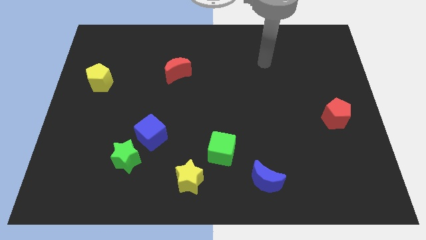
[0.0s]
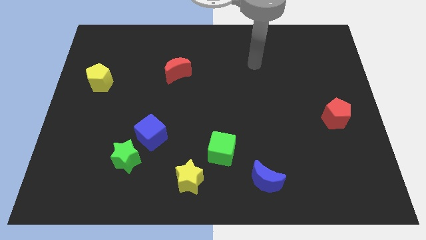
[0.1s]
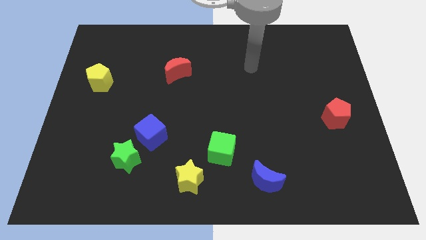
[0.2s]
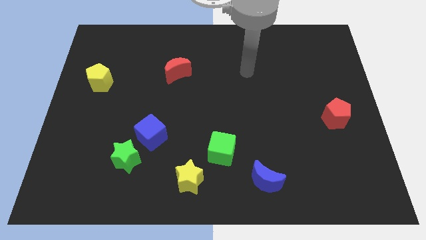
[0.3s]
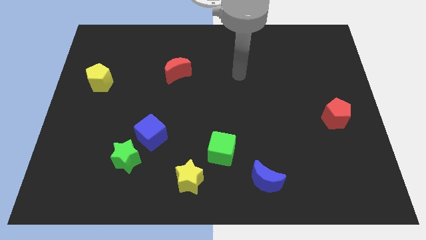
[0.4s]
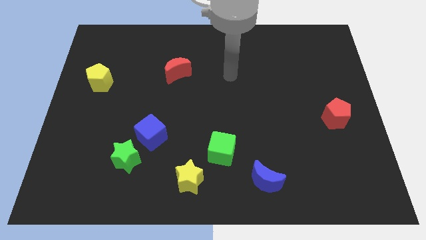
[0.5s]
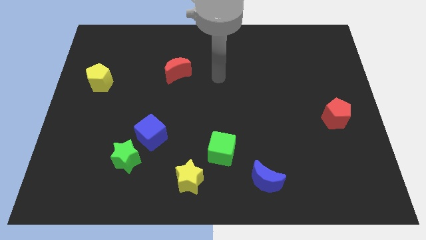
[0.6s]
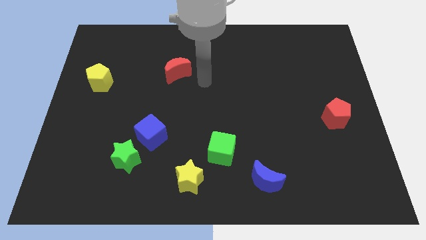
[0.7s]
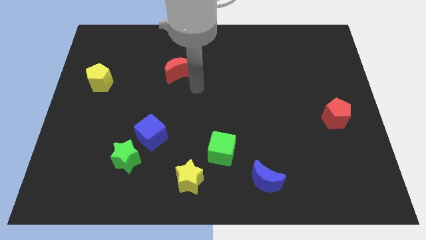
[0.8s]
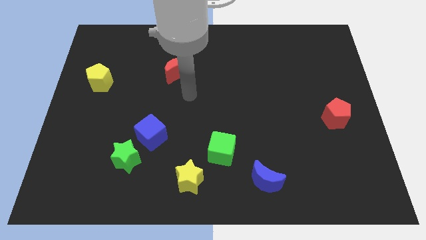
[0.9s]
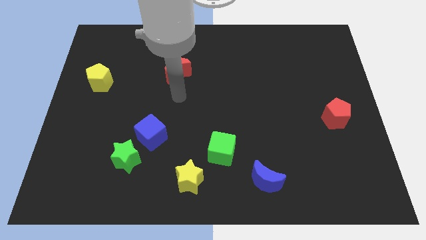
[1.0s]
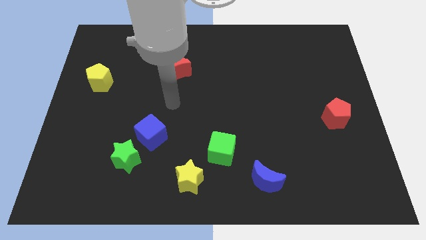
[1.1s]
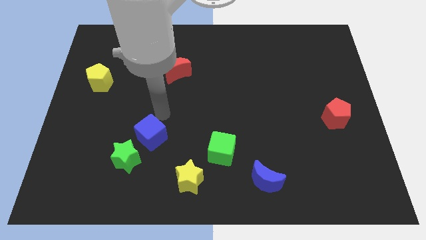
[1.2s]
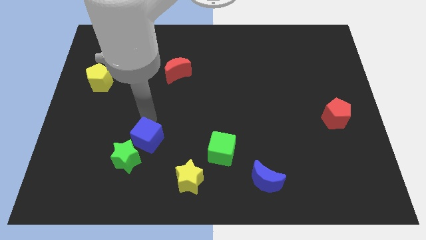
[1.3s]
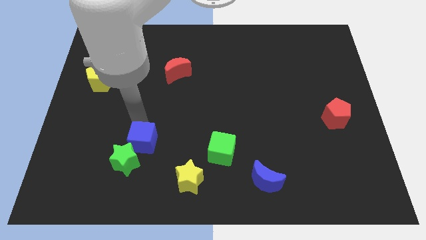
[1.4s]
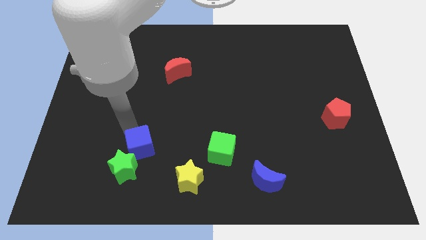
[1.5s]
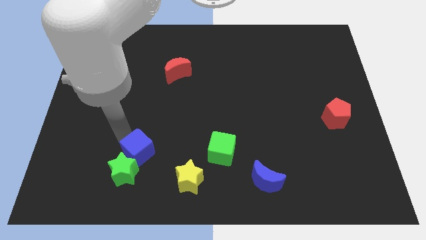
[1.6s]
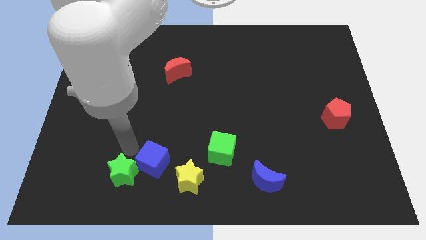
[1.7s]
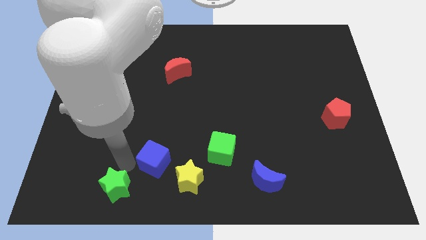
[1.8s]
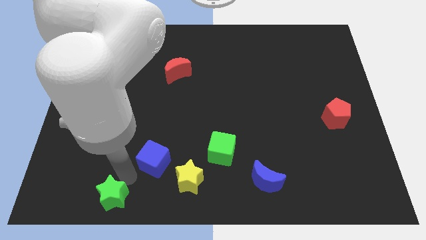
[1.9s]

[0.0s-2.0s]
pull the blue cube apart from the green star

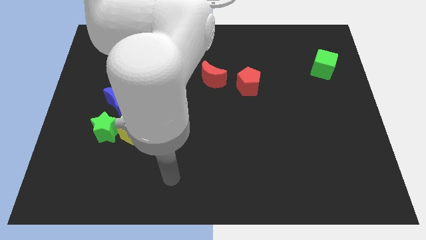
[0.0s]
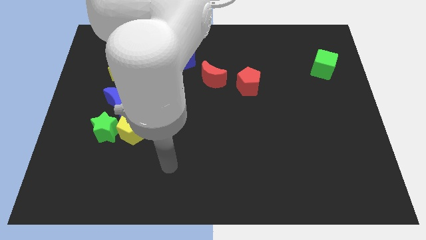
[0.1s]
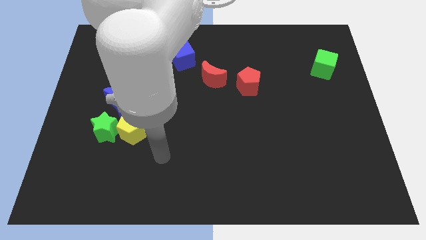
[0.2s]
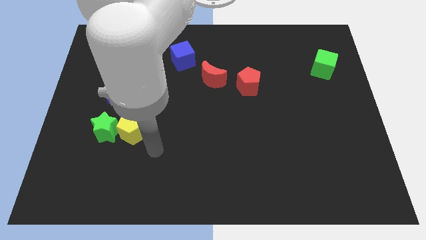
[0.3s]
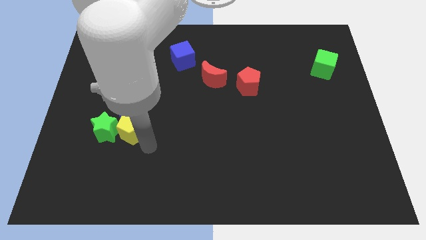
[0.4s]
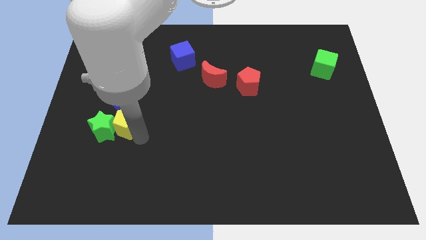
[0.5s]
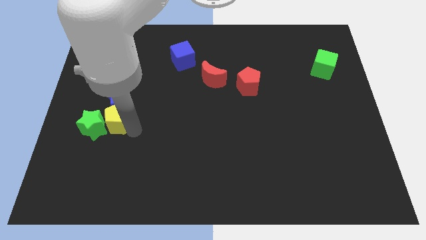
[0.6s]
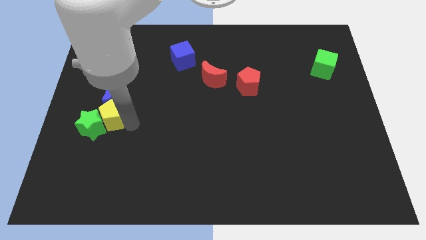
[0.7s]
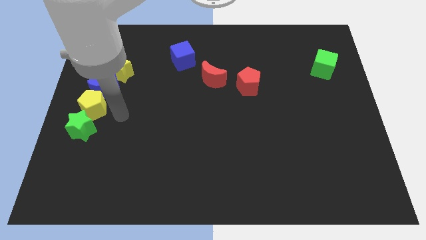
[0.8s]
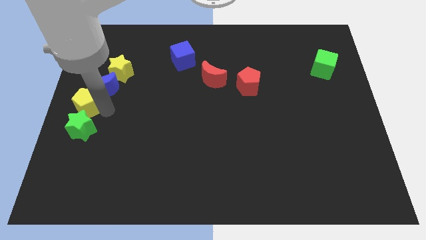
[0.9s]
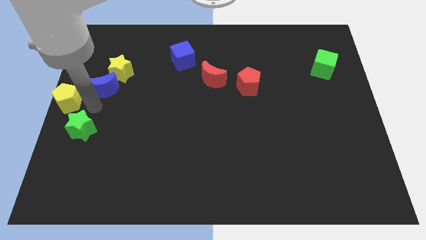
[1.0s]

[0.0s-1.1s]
pull the green star apart from the yellow pentagon and blue moon

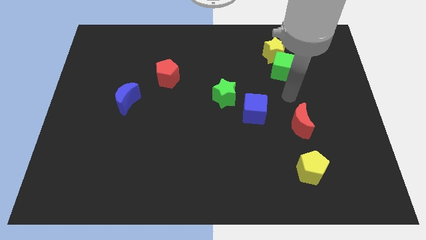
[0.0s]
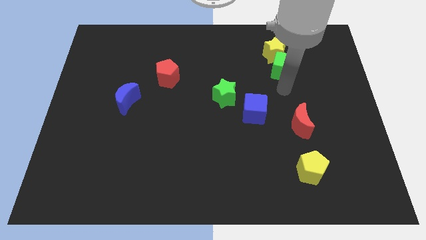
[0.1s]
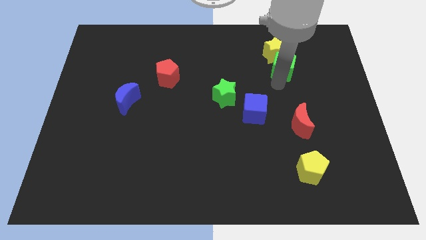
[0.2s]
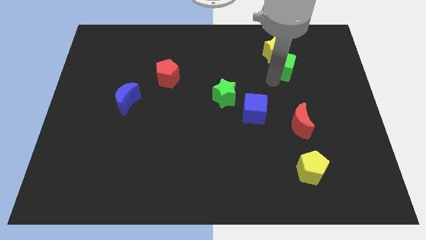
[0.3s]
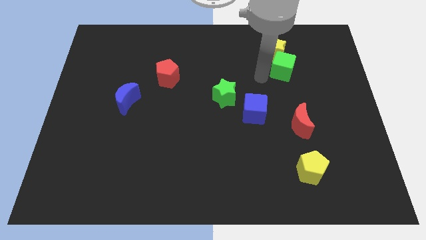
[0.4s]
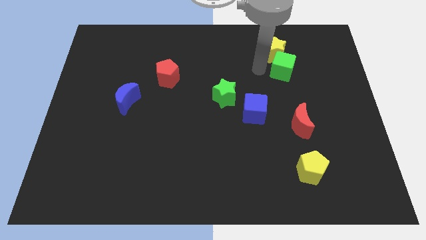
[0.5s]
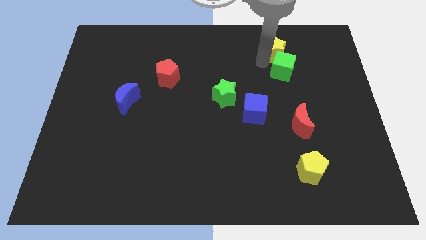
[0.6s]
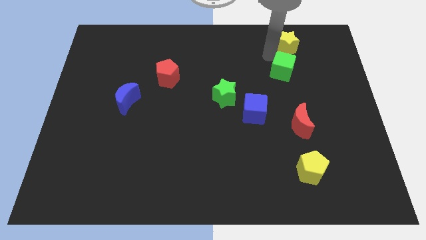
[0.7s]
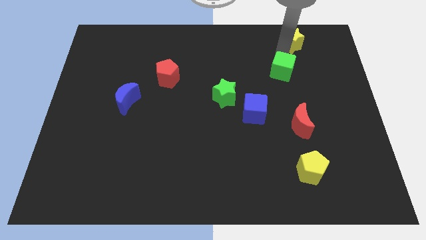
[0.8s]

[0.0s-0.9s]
move the green cube away from the yellow star

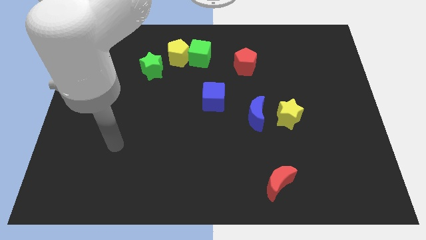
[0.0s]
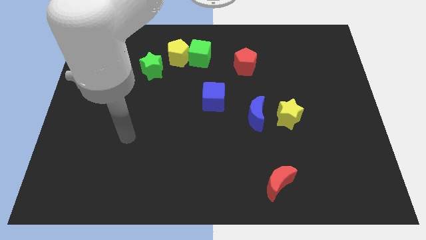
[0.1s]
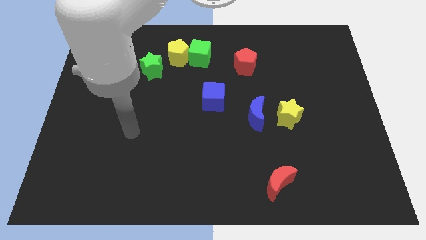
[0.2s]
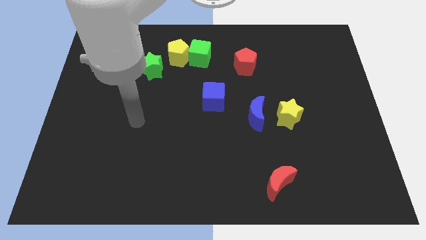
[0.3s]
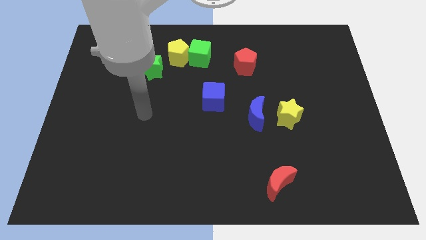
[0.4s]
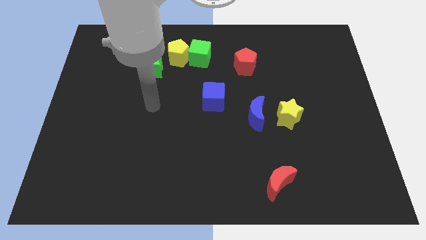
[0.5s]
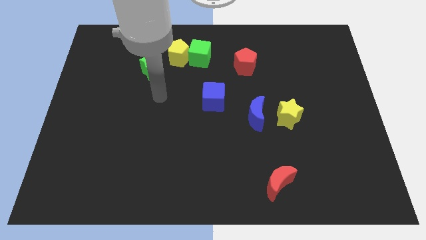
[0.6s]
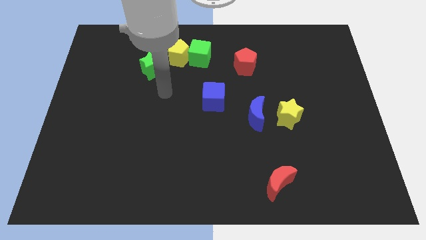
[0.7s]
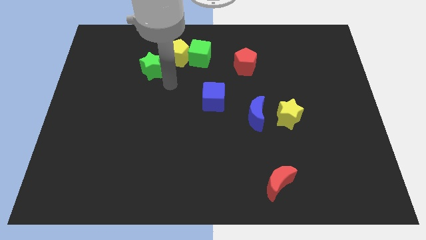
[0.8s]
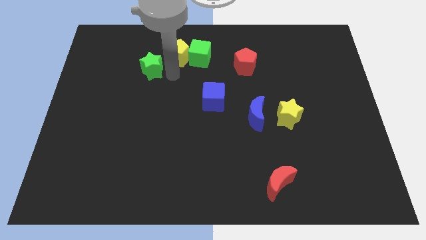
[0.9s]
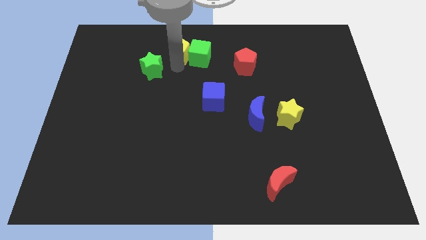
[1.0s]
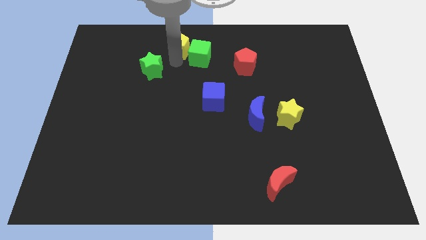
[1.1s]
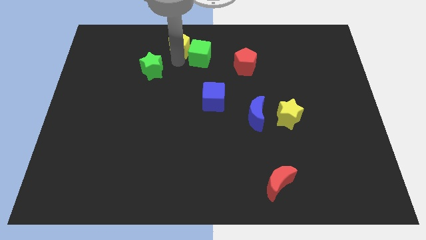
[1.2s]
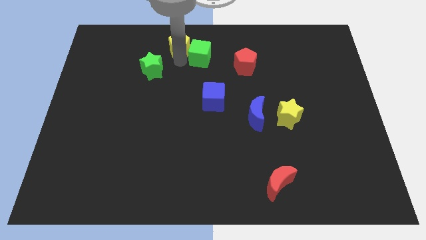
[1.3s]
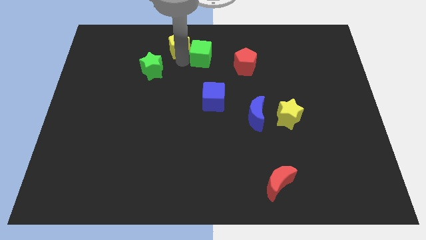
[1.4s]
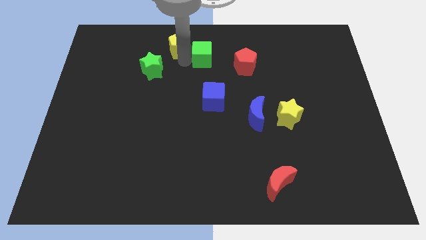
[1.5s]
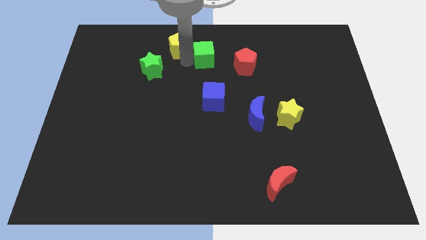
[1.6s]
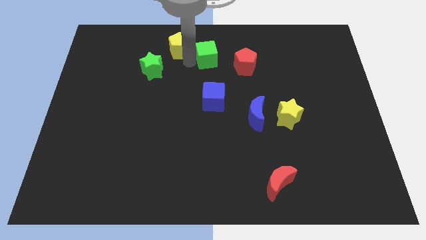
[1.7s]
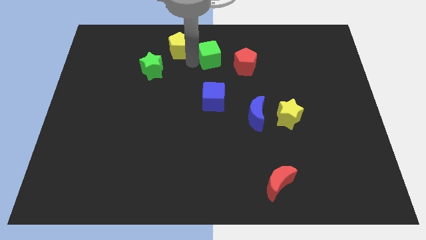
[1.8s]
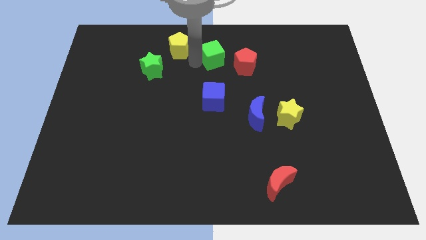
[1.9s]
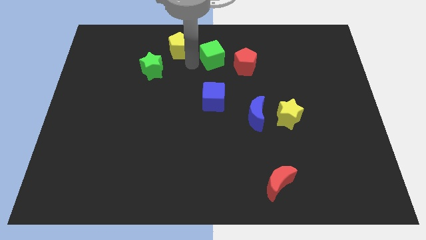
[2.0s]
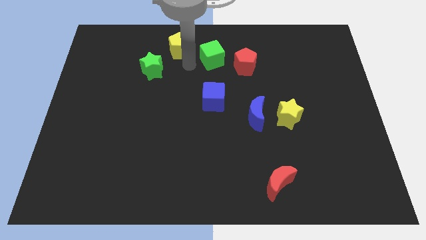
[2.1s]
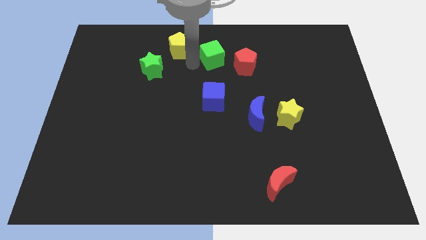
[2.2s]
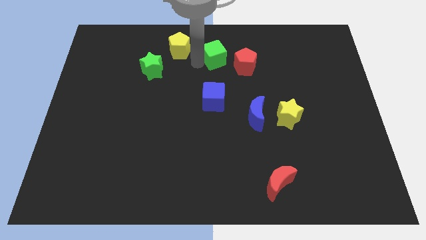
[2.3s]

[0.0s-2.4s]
separate the green cube from the yellow pentagon

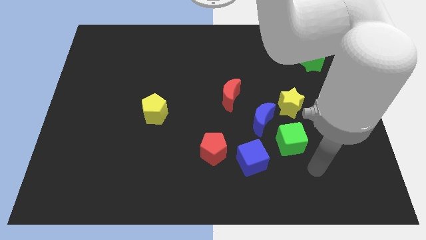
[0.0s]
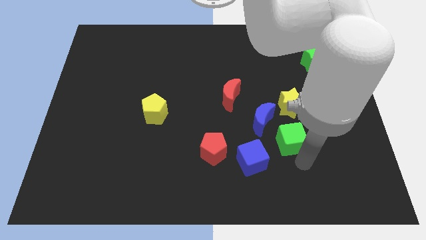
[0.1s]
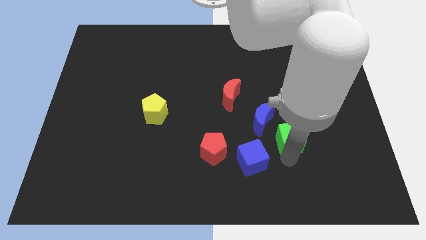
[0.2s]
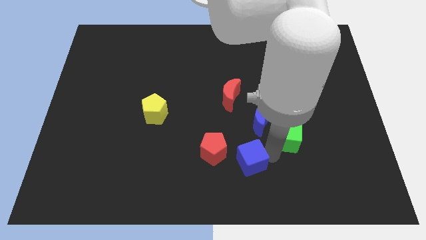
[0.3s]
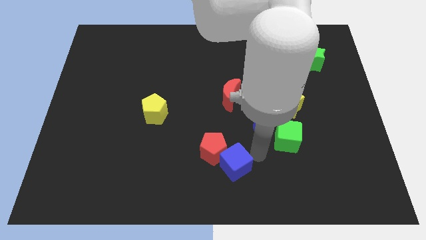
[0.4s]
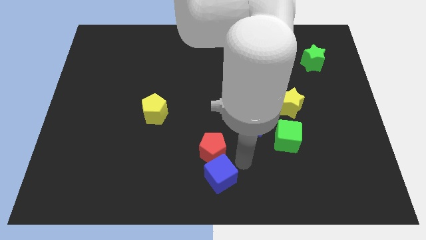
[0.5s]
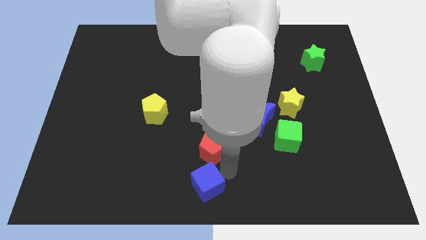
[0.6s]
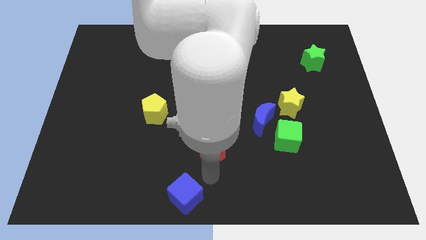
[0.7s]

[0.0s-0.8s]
pull the red pentagon apart from the blue cube

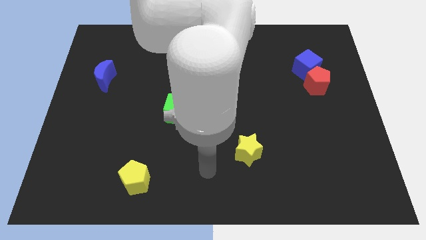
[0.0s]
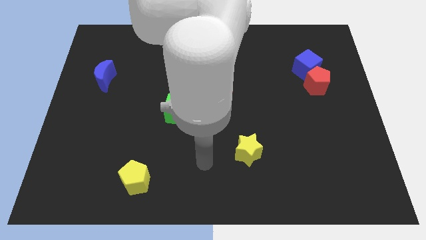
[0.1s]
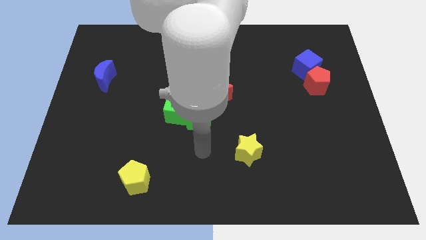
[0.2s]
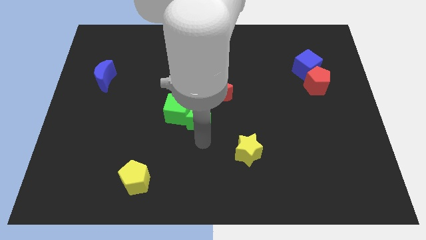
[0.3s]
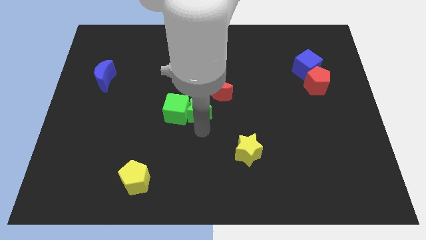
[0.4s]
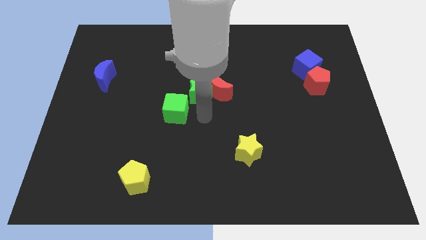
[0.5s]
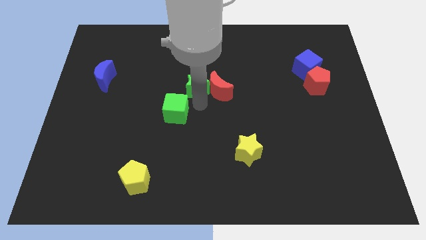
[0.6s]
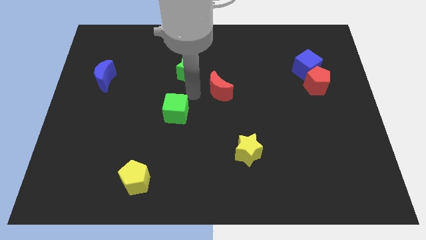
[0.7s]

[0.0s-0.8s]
move the green cube away from the green star

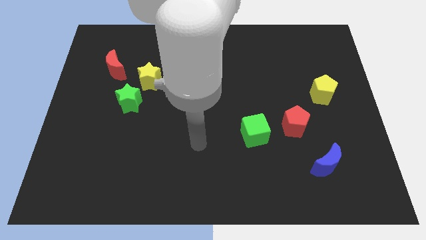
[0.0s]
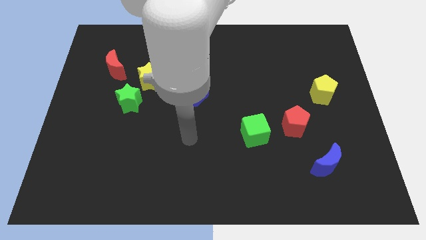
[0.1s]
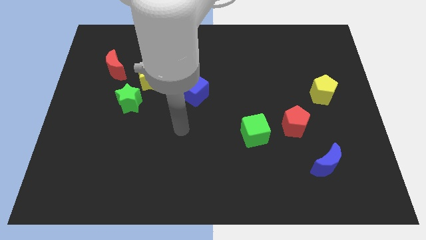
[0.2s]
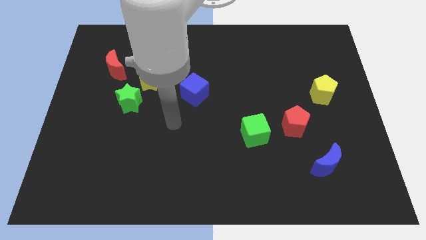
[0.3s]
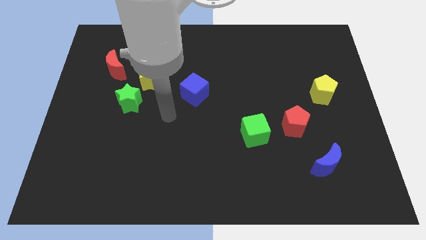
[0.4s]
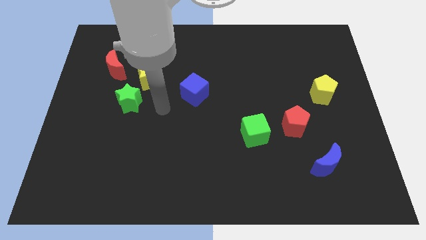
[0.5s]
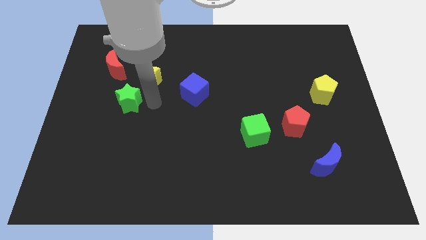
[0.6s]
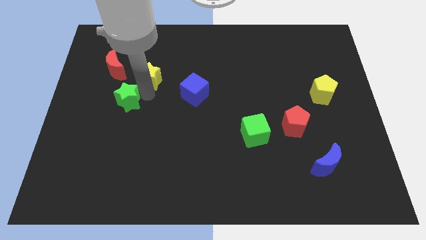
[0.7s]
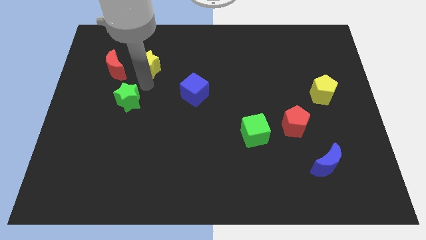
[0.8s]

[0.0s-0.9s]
pull the green star apart from the yellow star

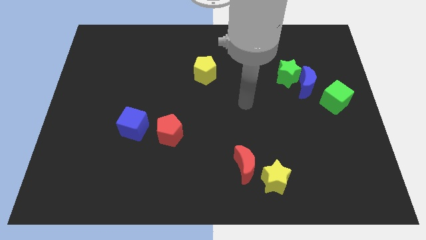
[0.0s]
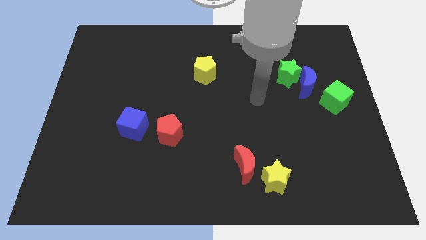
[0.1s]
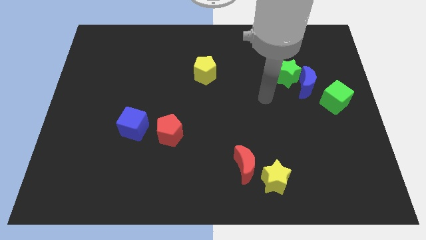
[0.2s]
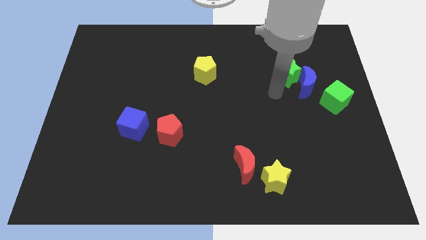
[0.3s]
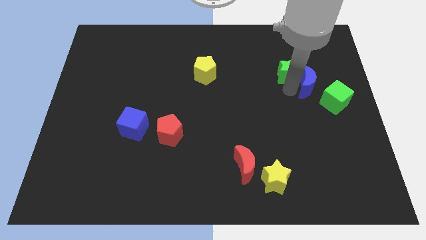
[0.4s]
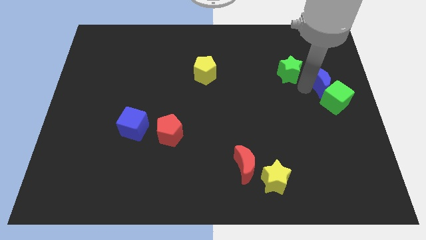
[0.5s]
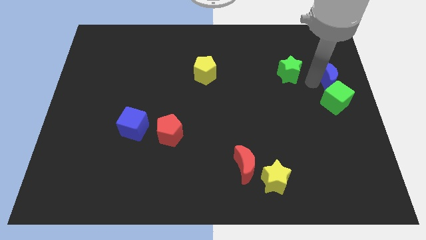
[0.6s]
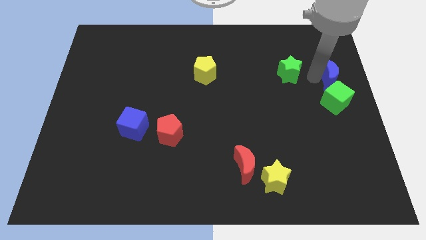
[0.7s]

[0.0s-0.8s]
separate the green star from the blue moon
